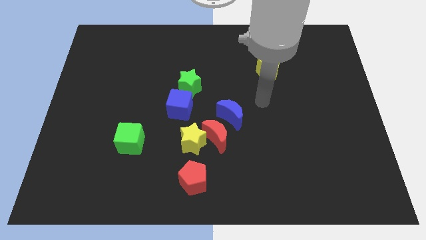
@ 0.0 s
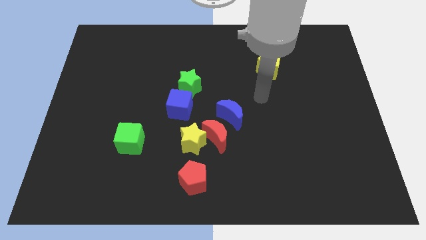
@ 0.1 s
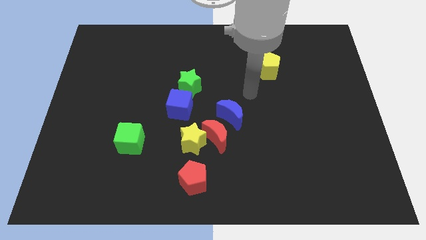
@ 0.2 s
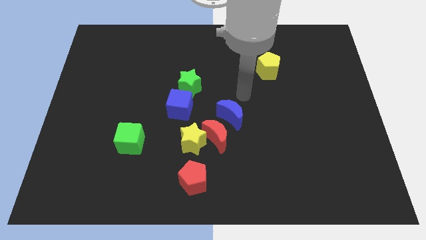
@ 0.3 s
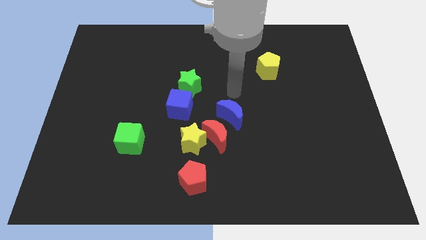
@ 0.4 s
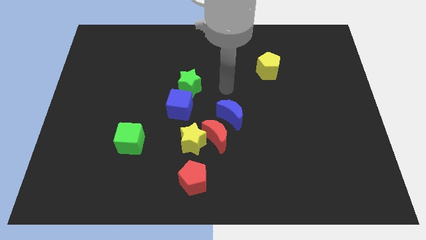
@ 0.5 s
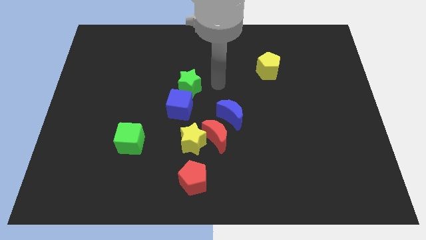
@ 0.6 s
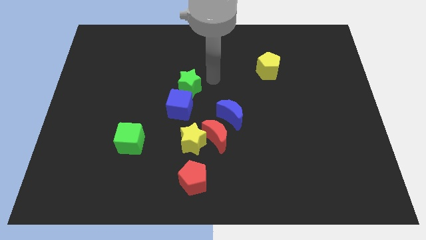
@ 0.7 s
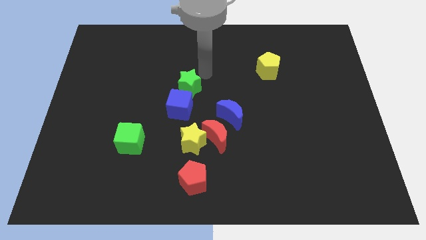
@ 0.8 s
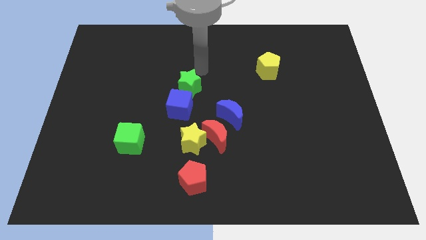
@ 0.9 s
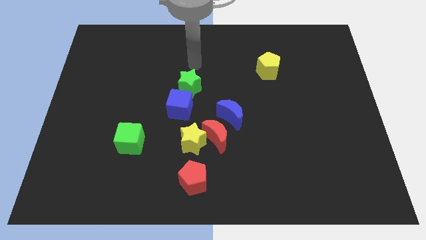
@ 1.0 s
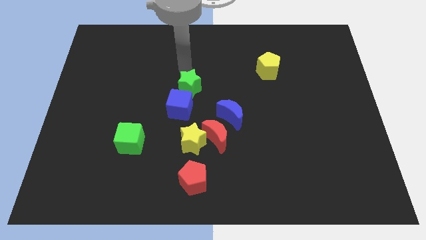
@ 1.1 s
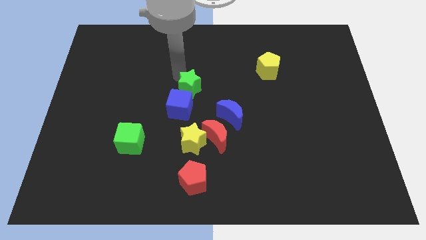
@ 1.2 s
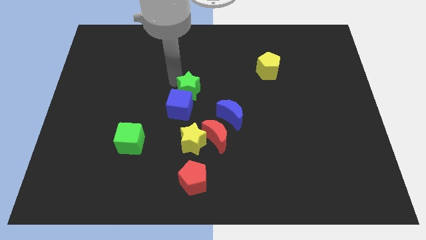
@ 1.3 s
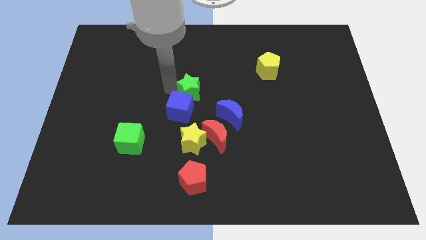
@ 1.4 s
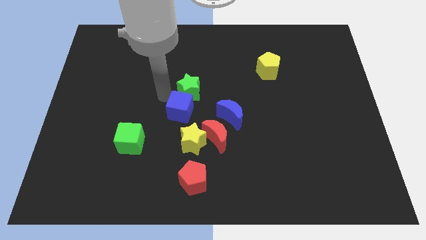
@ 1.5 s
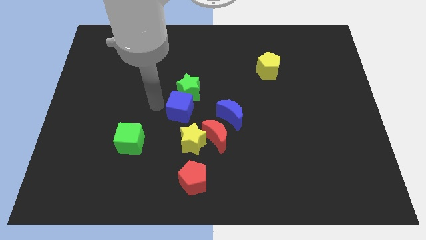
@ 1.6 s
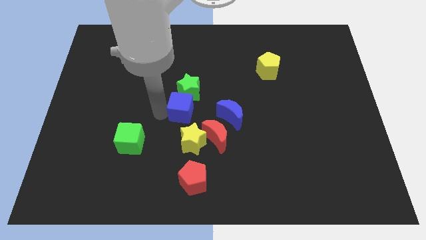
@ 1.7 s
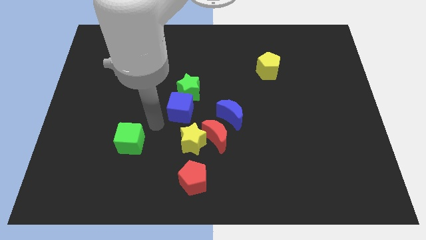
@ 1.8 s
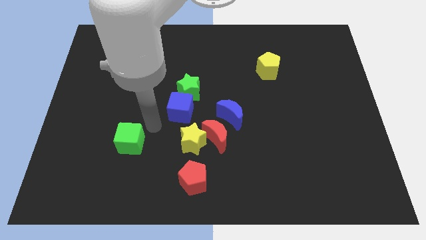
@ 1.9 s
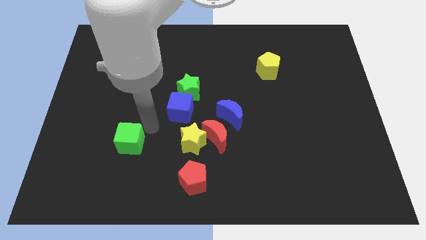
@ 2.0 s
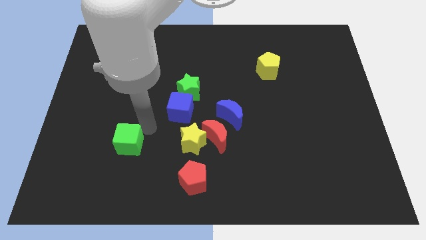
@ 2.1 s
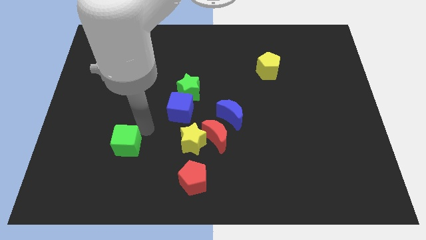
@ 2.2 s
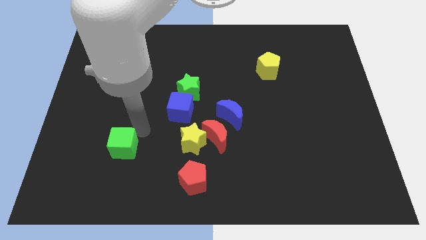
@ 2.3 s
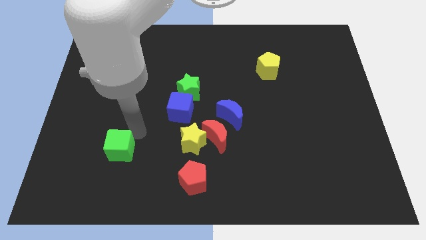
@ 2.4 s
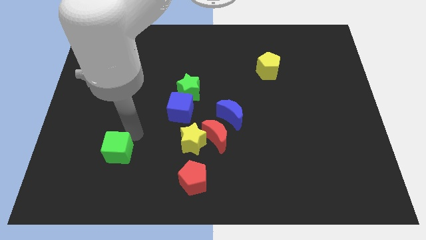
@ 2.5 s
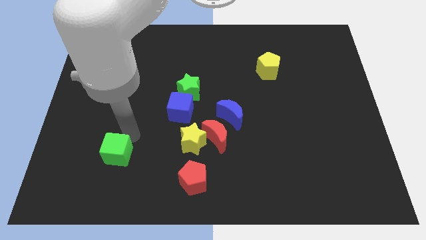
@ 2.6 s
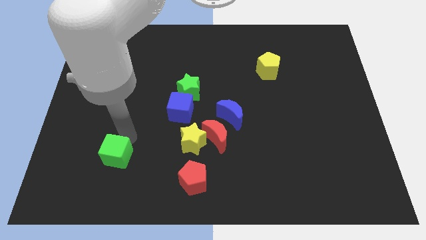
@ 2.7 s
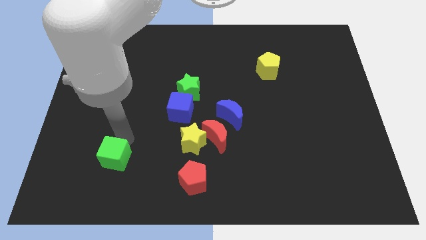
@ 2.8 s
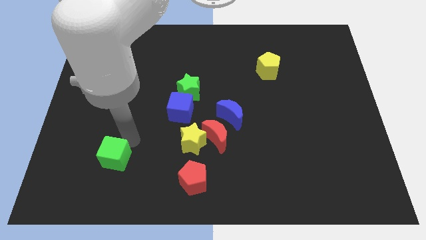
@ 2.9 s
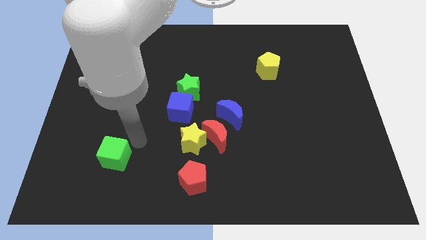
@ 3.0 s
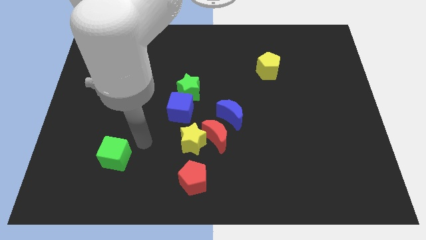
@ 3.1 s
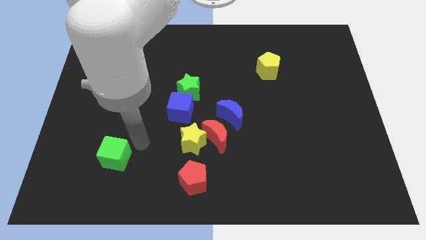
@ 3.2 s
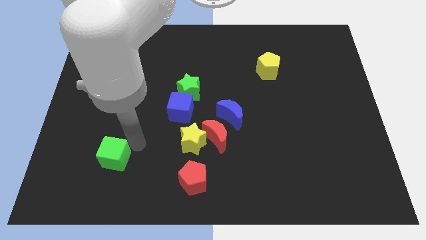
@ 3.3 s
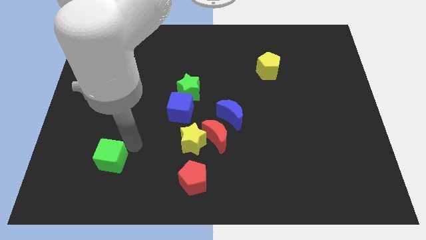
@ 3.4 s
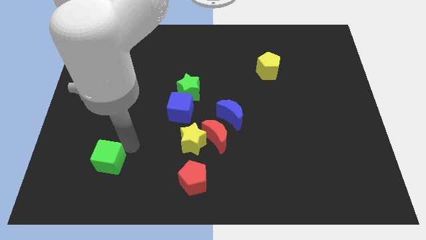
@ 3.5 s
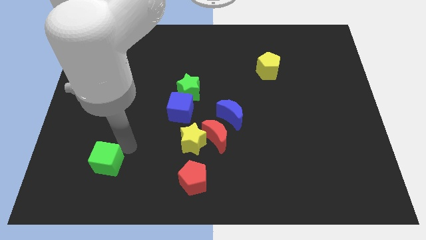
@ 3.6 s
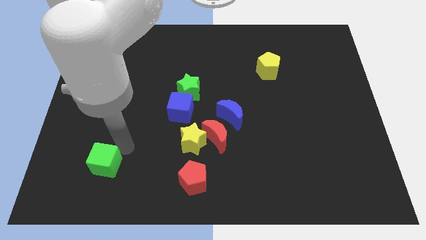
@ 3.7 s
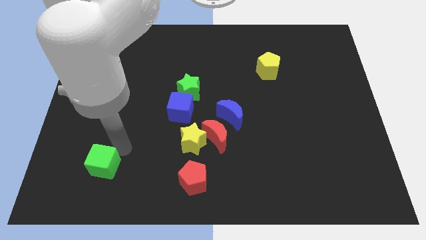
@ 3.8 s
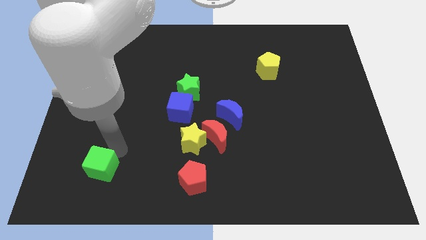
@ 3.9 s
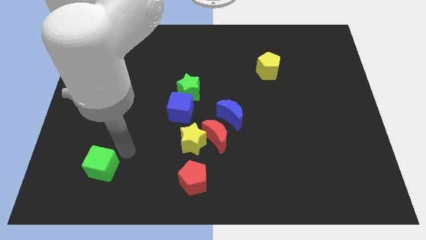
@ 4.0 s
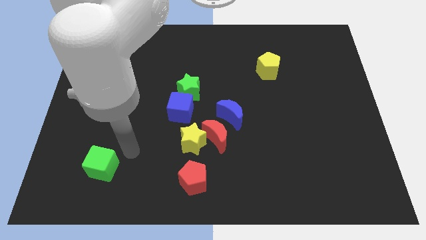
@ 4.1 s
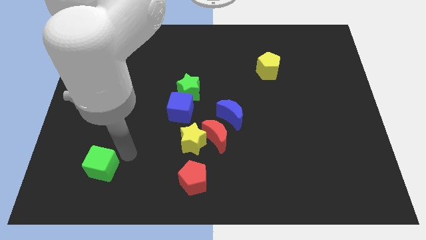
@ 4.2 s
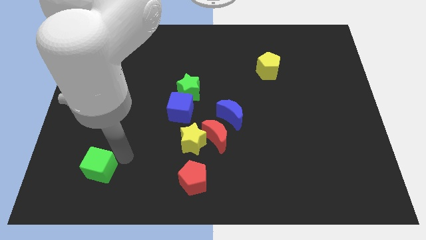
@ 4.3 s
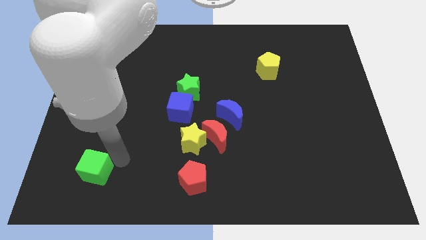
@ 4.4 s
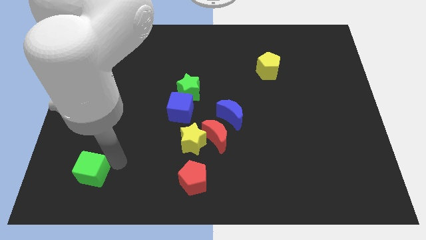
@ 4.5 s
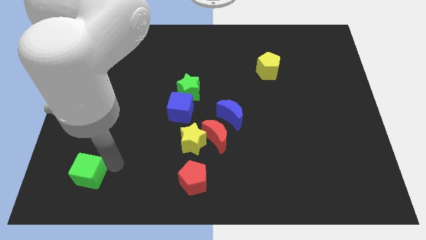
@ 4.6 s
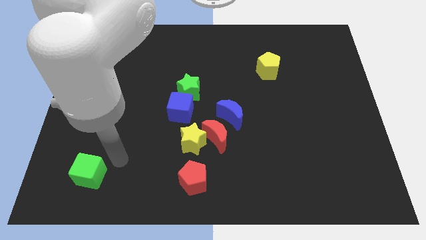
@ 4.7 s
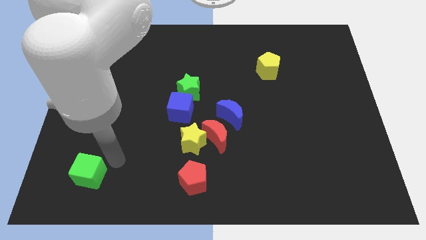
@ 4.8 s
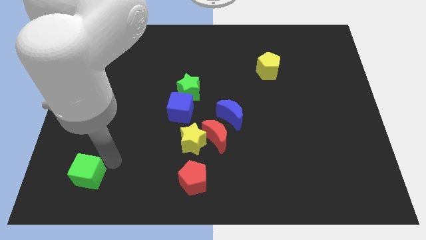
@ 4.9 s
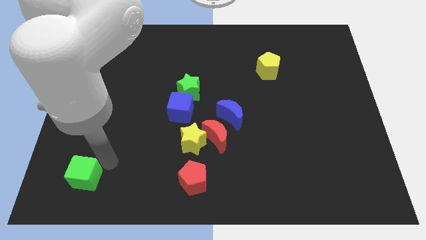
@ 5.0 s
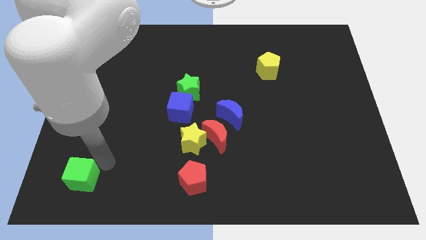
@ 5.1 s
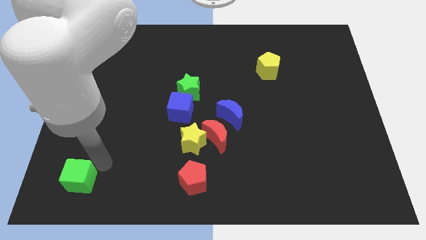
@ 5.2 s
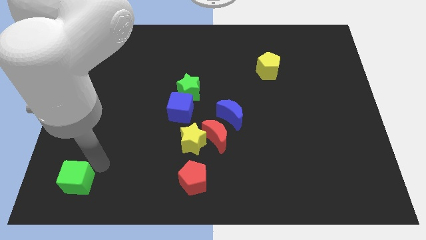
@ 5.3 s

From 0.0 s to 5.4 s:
move the green cube to the bottom left of the board

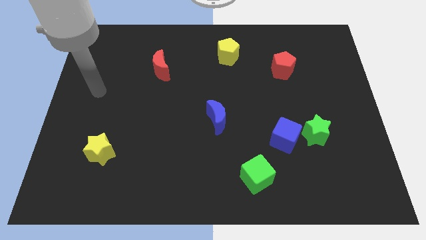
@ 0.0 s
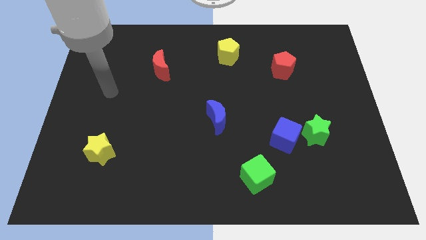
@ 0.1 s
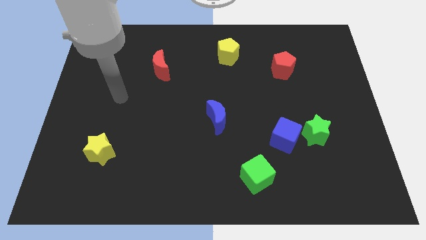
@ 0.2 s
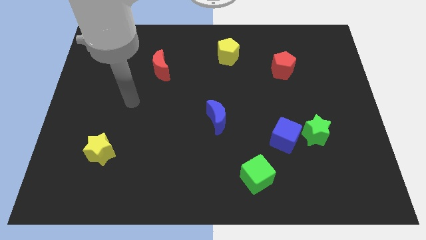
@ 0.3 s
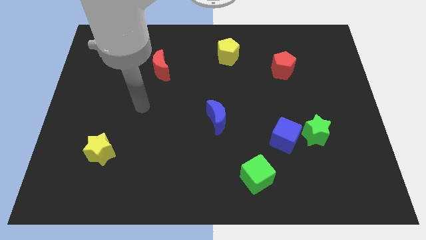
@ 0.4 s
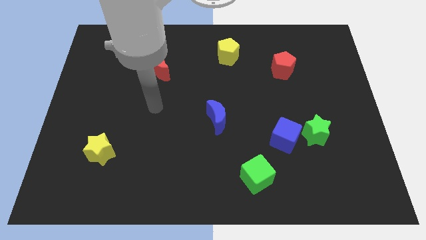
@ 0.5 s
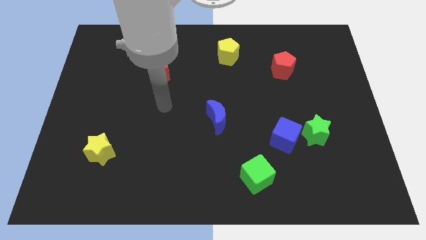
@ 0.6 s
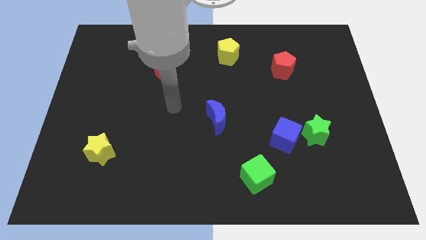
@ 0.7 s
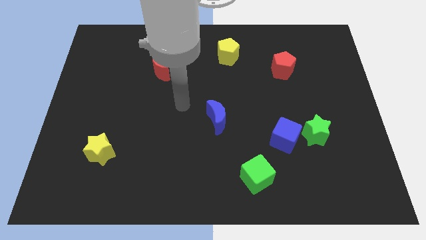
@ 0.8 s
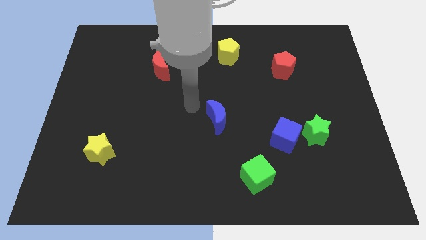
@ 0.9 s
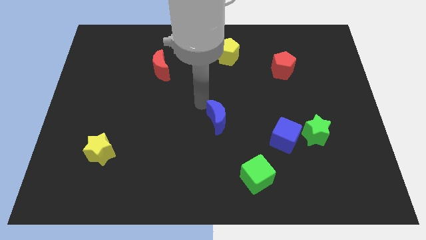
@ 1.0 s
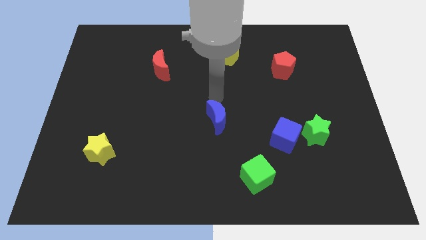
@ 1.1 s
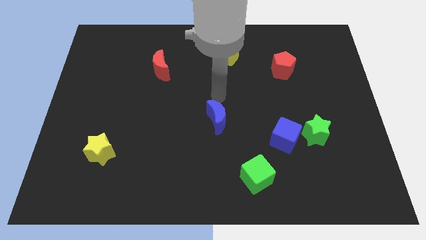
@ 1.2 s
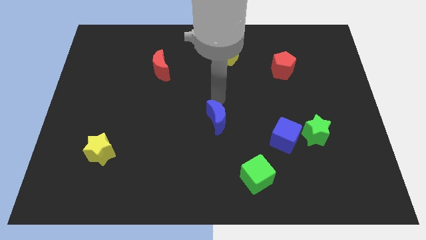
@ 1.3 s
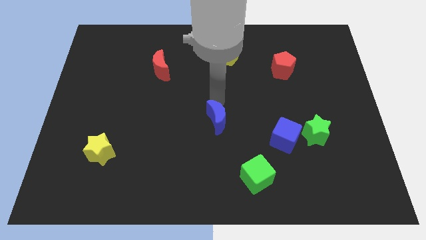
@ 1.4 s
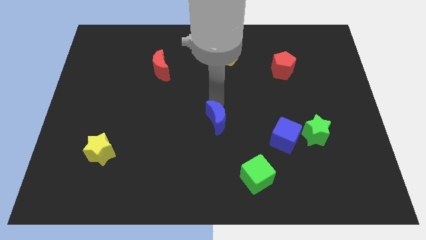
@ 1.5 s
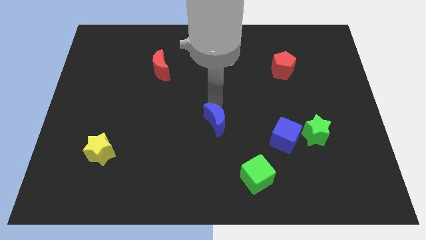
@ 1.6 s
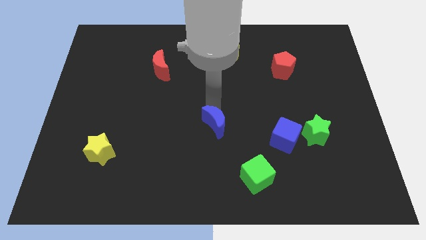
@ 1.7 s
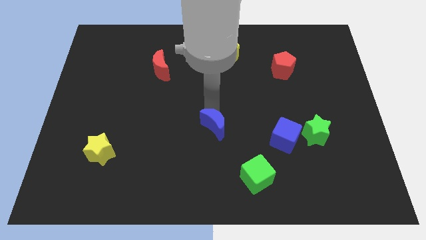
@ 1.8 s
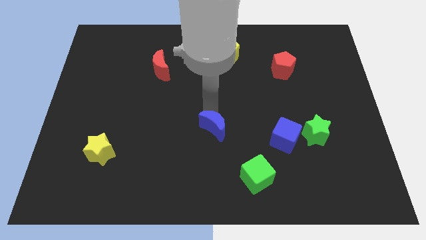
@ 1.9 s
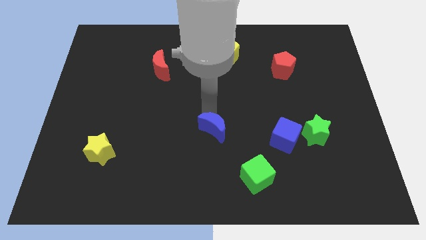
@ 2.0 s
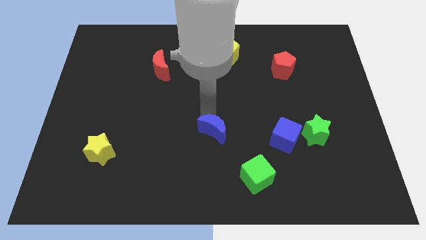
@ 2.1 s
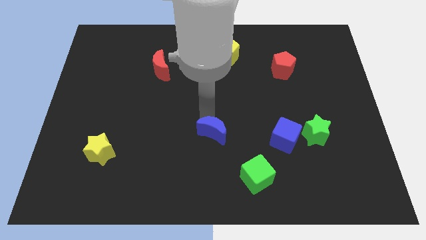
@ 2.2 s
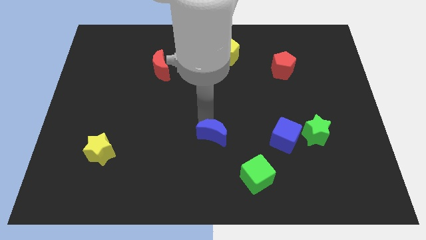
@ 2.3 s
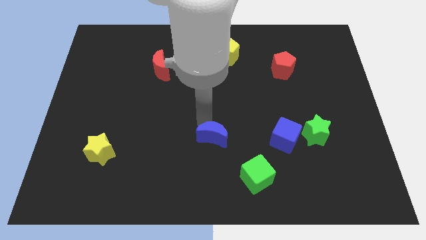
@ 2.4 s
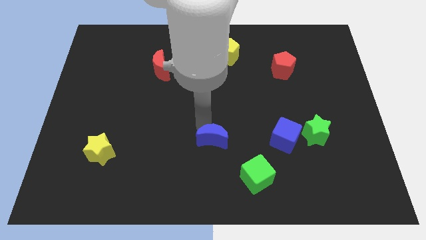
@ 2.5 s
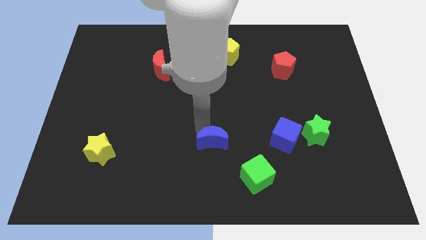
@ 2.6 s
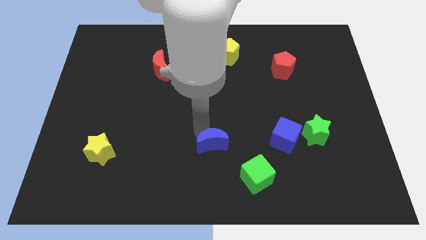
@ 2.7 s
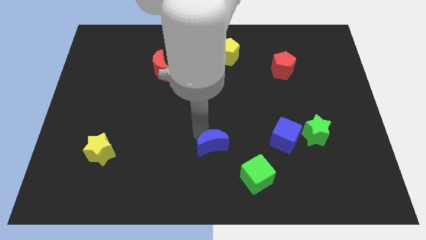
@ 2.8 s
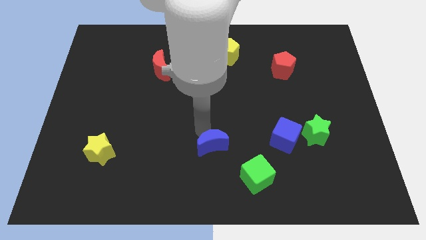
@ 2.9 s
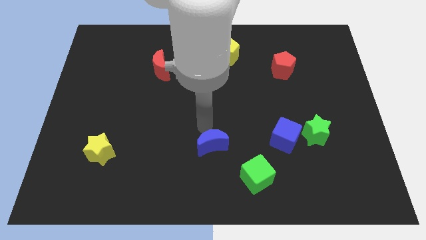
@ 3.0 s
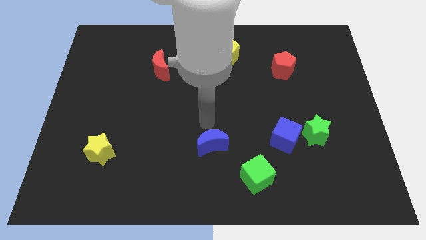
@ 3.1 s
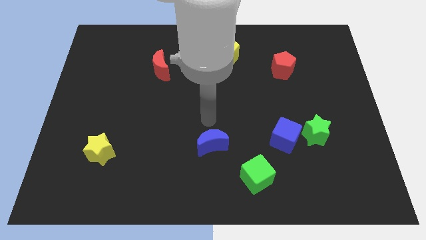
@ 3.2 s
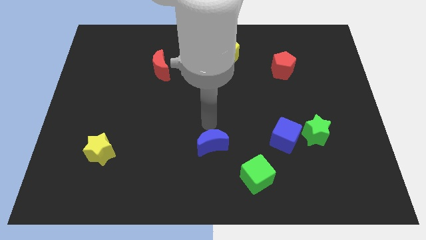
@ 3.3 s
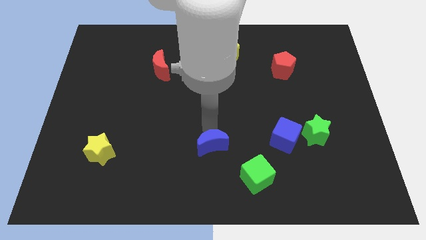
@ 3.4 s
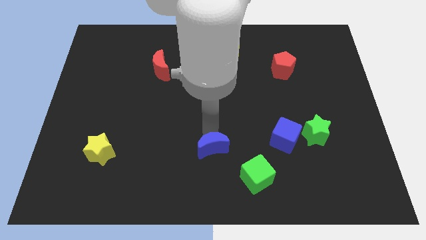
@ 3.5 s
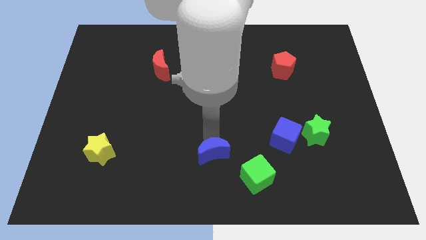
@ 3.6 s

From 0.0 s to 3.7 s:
move the blue moon to the bottom side
